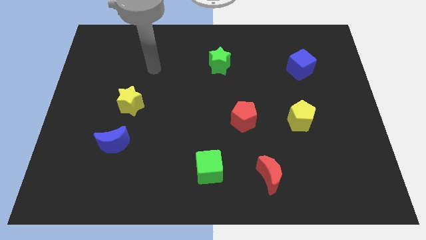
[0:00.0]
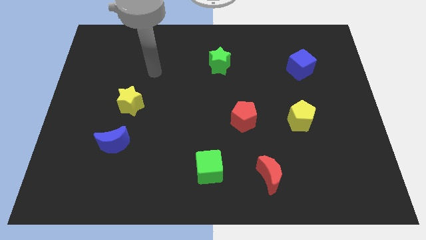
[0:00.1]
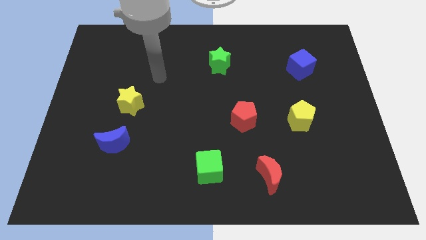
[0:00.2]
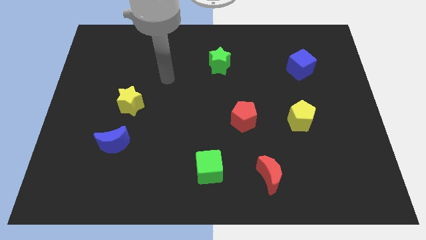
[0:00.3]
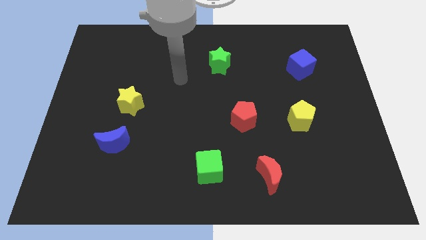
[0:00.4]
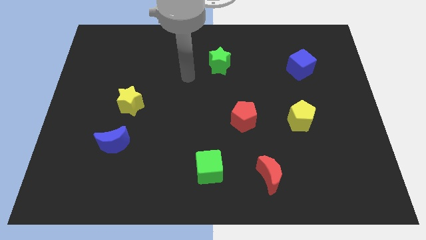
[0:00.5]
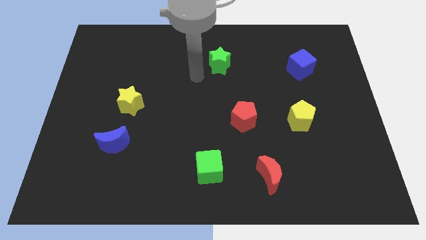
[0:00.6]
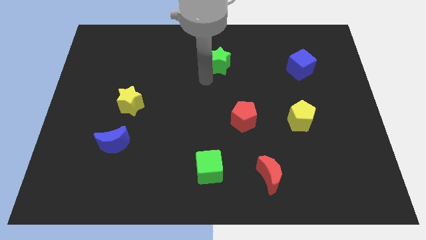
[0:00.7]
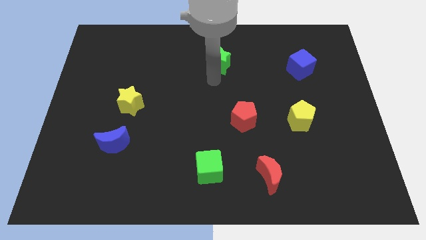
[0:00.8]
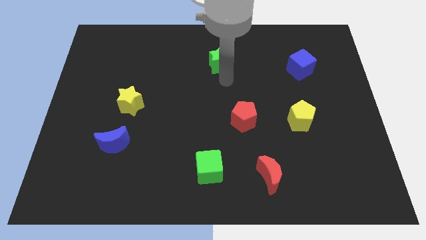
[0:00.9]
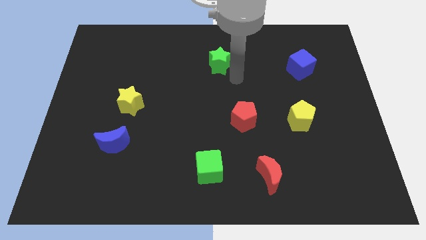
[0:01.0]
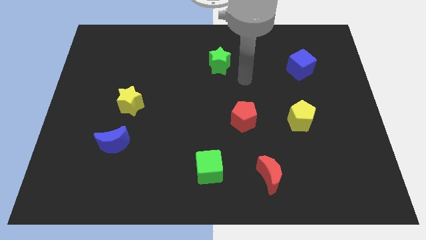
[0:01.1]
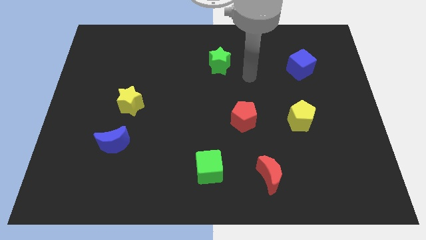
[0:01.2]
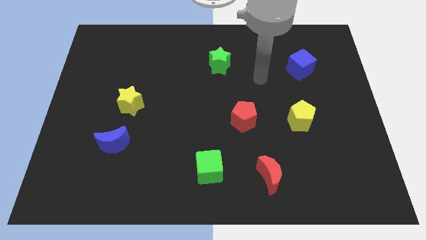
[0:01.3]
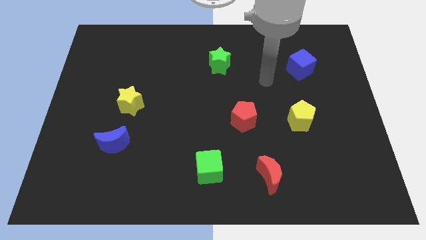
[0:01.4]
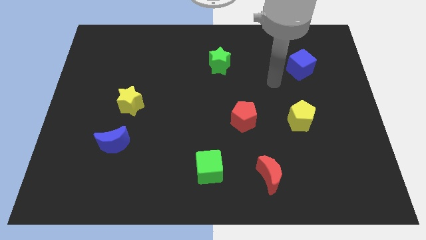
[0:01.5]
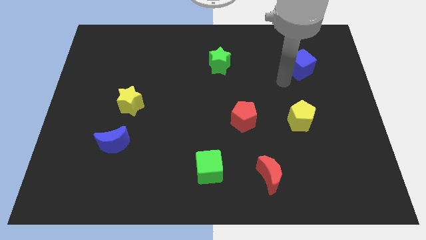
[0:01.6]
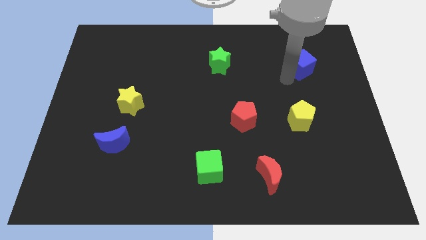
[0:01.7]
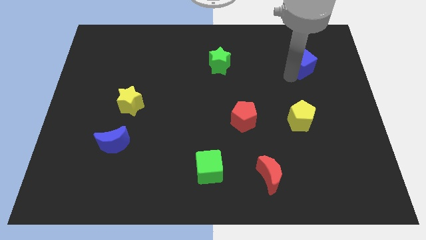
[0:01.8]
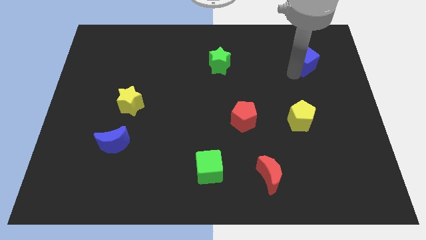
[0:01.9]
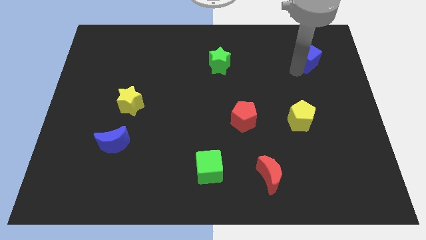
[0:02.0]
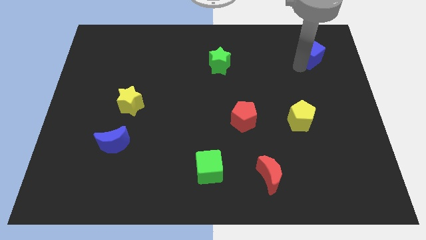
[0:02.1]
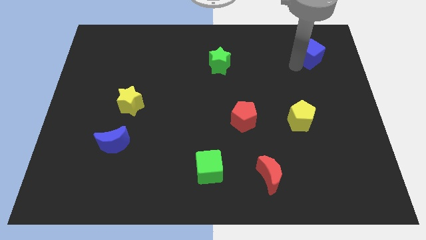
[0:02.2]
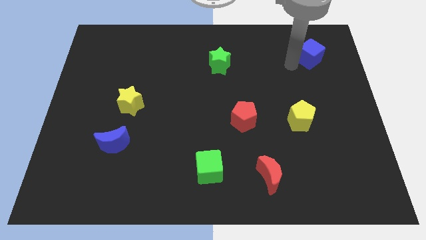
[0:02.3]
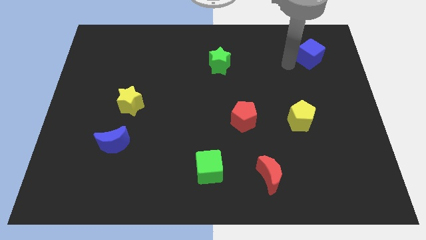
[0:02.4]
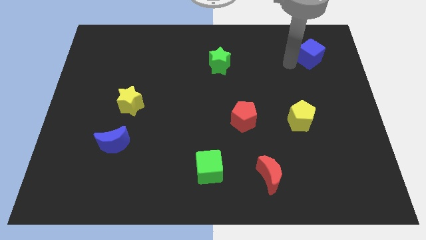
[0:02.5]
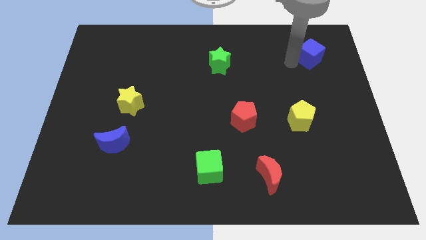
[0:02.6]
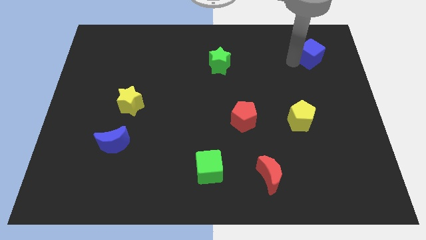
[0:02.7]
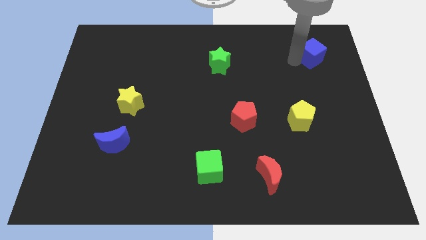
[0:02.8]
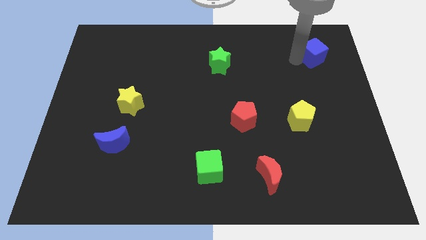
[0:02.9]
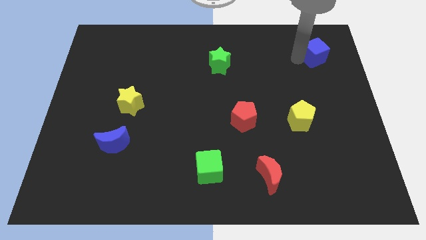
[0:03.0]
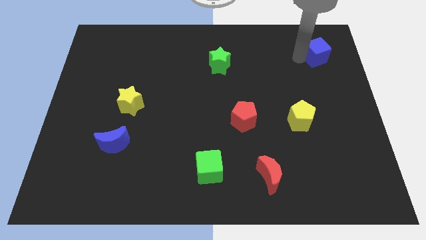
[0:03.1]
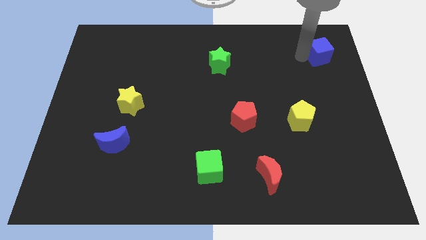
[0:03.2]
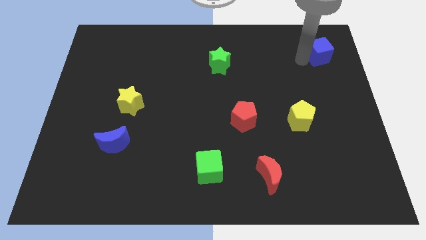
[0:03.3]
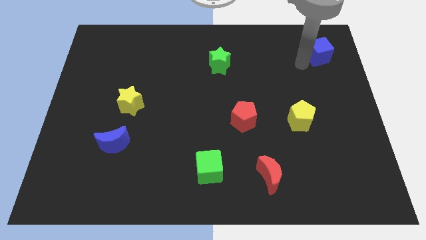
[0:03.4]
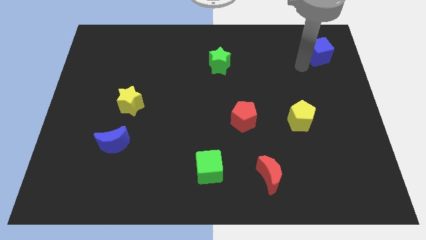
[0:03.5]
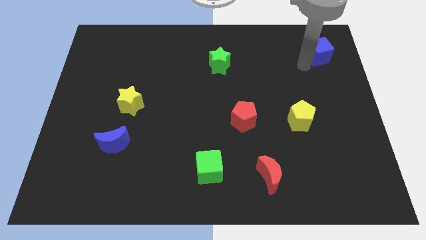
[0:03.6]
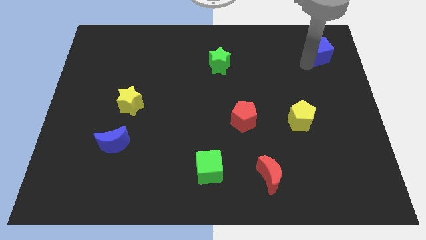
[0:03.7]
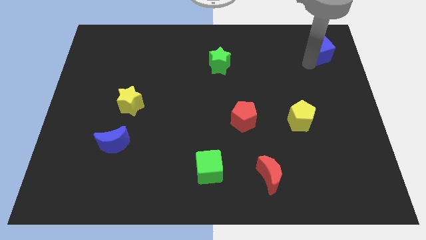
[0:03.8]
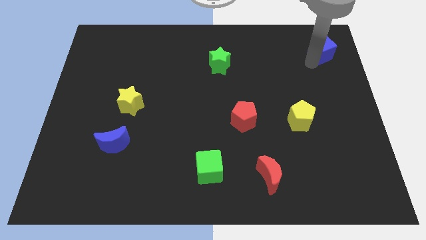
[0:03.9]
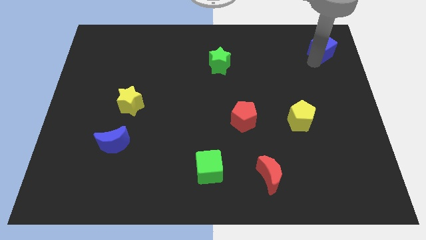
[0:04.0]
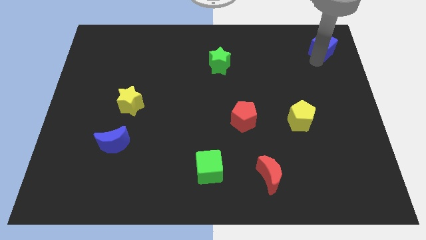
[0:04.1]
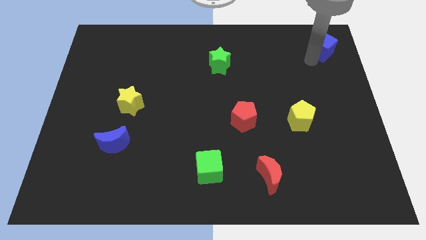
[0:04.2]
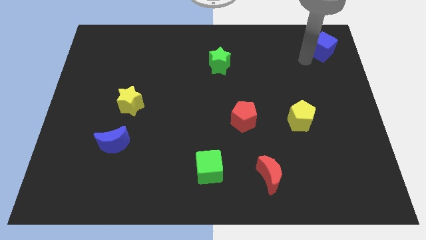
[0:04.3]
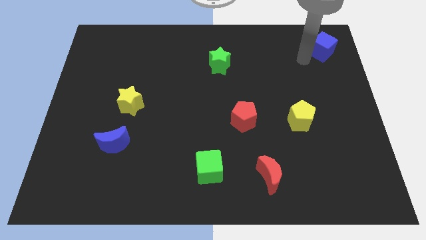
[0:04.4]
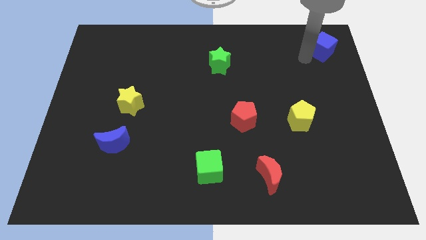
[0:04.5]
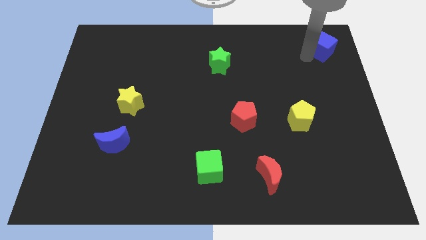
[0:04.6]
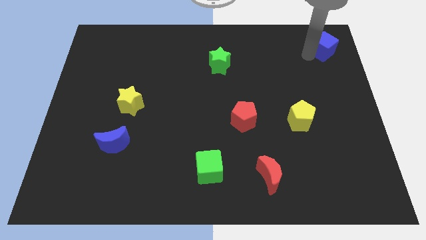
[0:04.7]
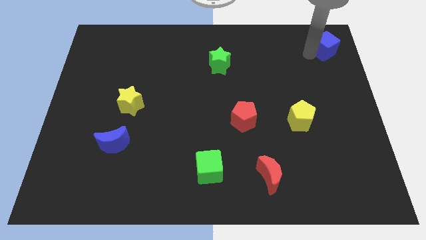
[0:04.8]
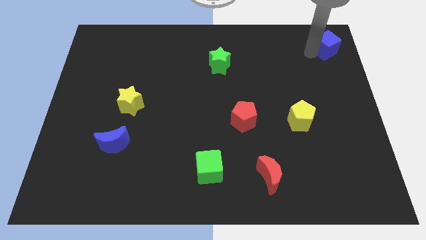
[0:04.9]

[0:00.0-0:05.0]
push the blue cube to the top right corner

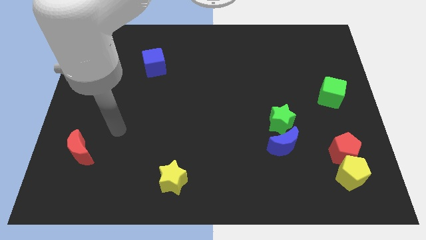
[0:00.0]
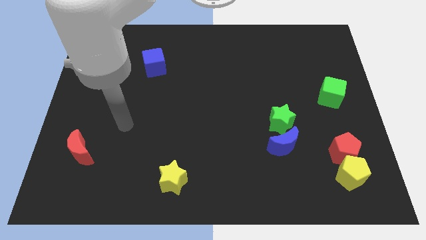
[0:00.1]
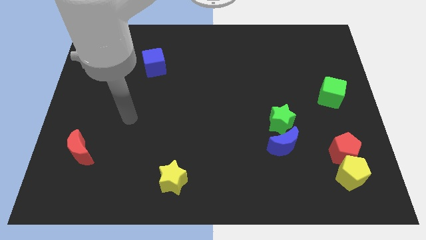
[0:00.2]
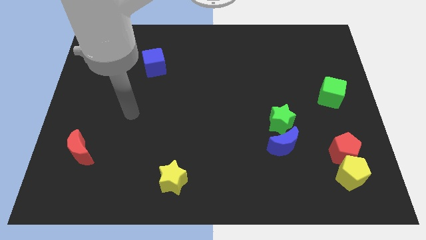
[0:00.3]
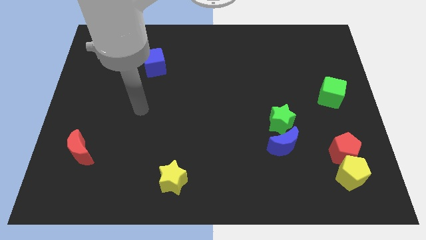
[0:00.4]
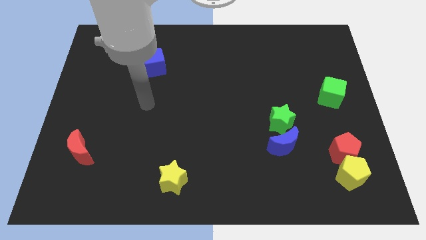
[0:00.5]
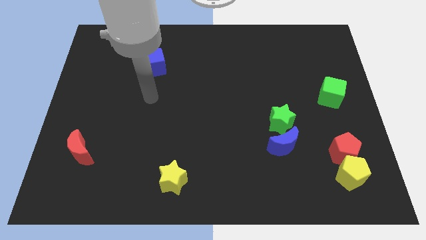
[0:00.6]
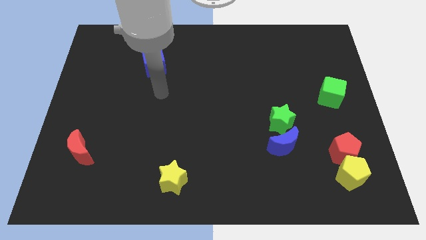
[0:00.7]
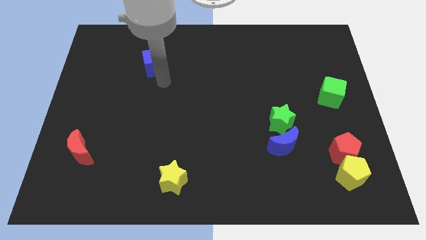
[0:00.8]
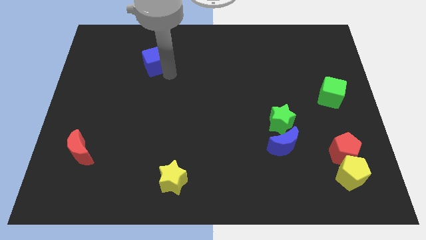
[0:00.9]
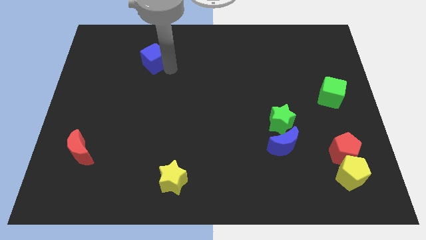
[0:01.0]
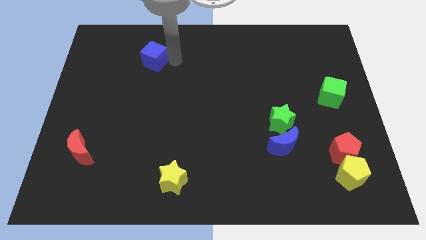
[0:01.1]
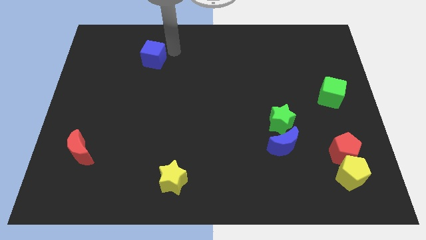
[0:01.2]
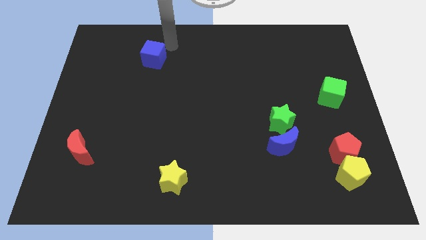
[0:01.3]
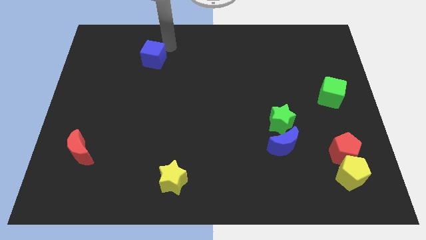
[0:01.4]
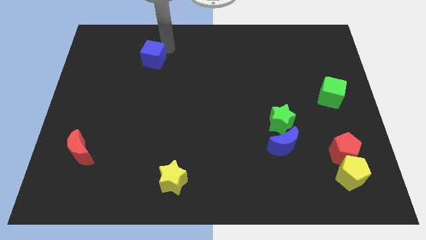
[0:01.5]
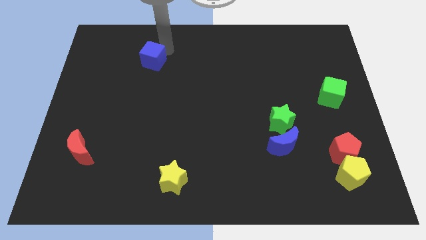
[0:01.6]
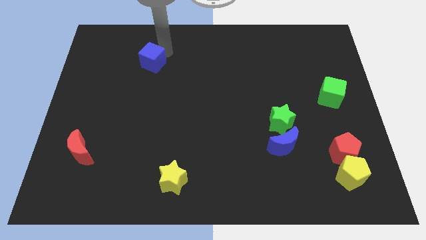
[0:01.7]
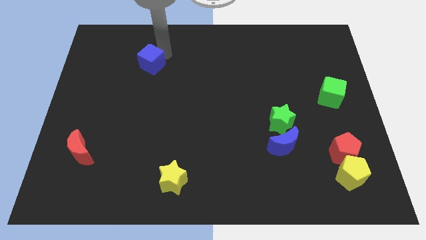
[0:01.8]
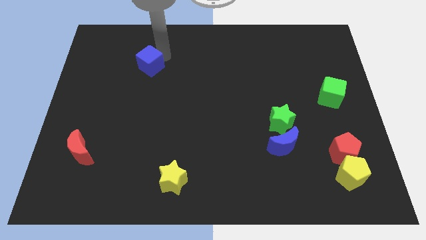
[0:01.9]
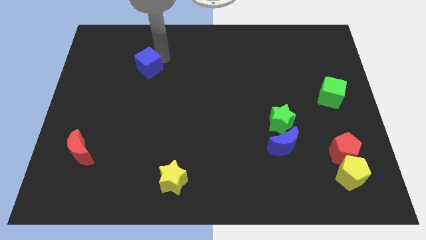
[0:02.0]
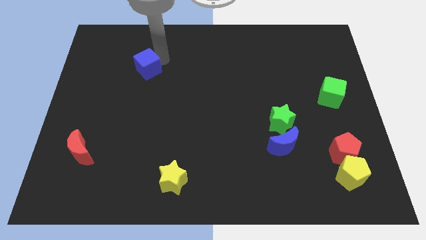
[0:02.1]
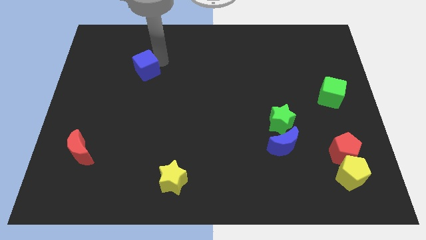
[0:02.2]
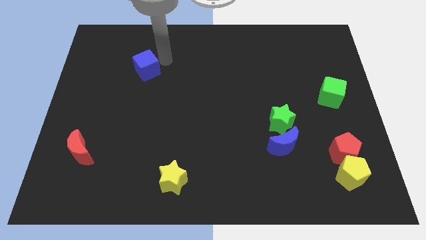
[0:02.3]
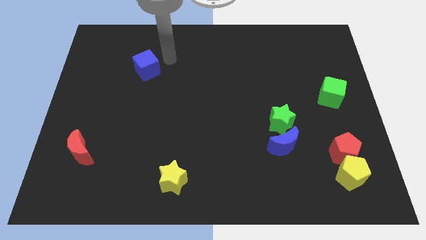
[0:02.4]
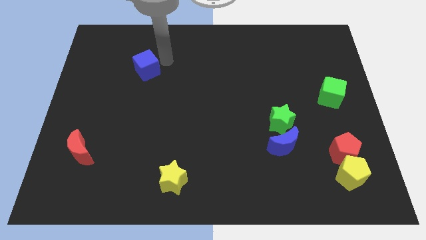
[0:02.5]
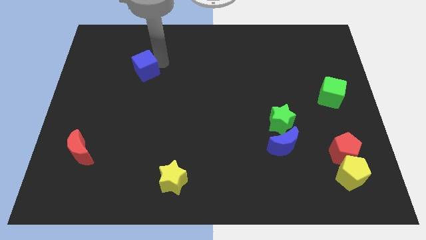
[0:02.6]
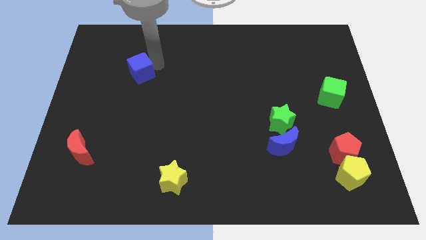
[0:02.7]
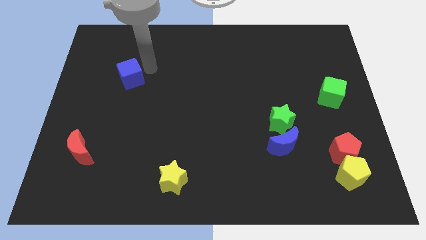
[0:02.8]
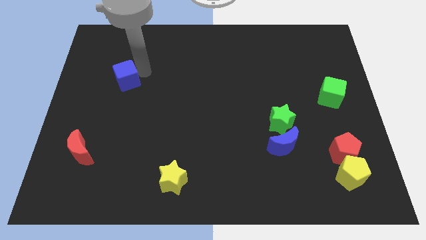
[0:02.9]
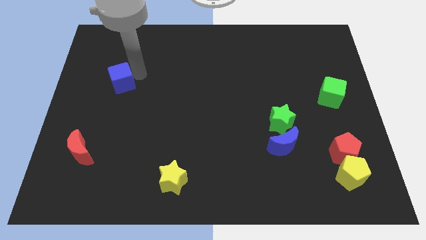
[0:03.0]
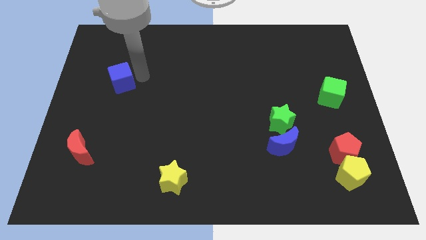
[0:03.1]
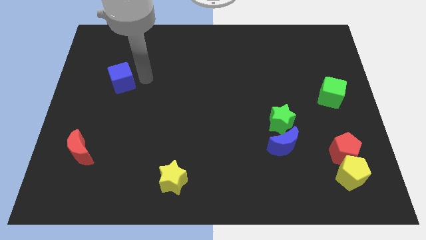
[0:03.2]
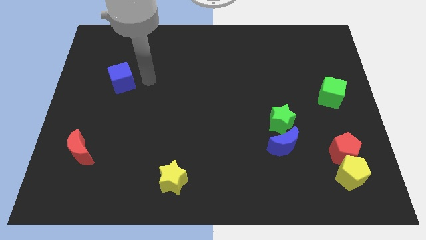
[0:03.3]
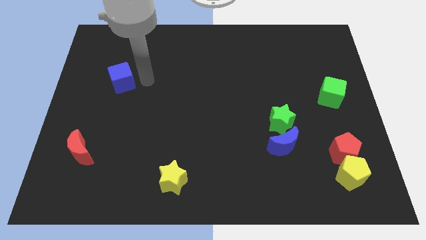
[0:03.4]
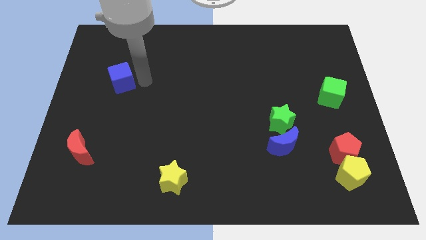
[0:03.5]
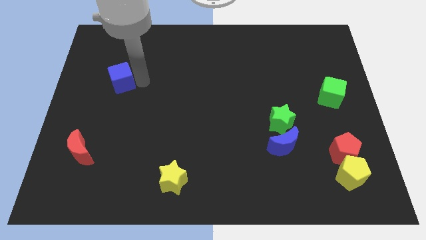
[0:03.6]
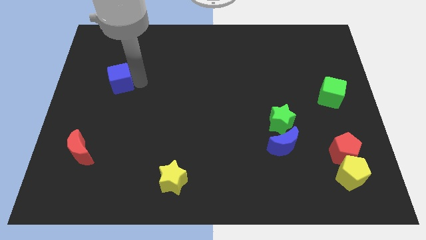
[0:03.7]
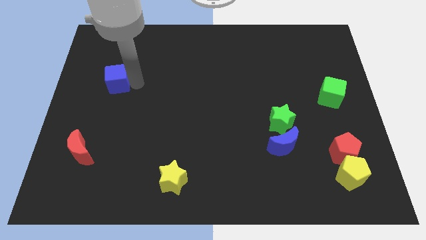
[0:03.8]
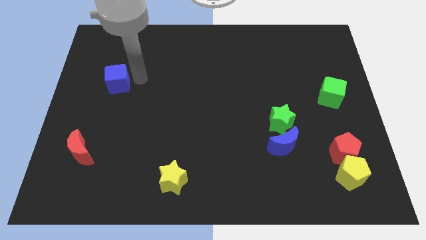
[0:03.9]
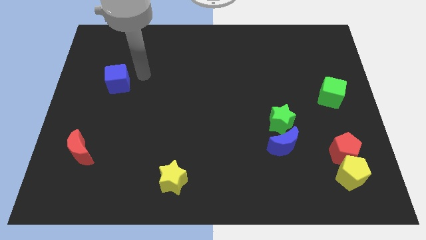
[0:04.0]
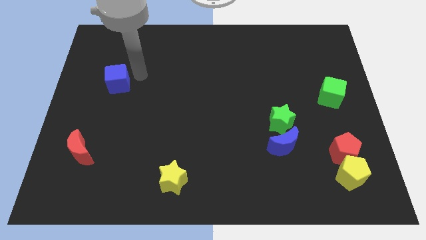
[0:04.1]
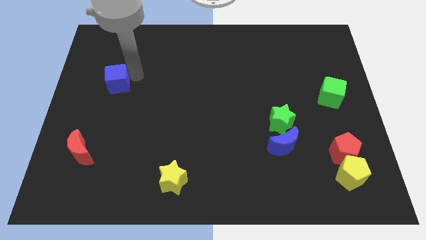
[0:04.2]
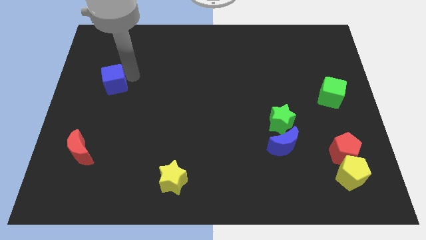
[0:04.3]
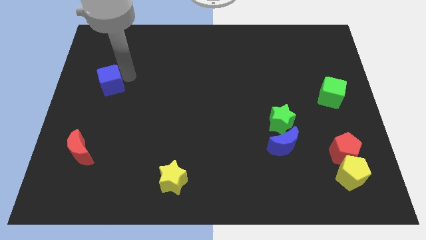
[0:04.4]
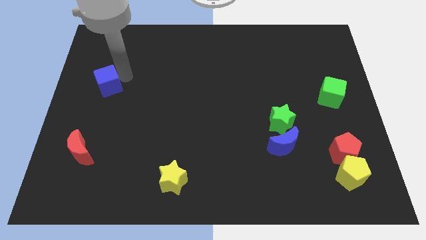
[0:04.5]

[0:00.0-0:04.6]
move the blue cube to the center left
